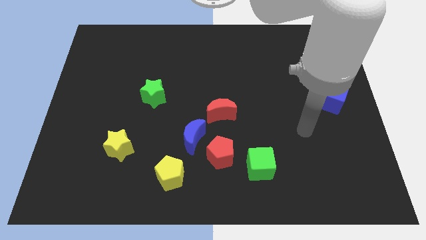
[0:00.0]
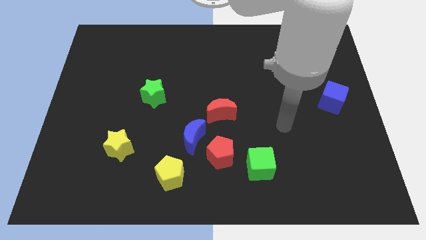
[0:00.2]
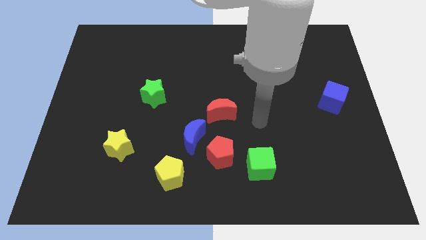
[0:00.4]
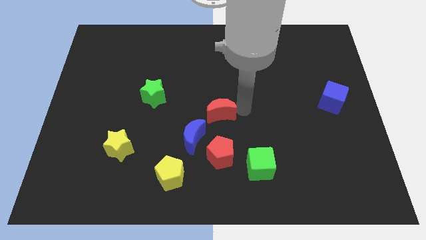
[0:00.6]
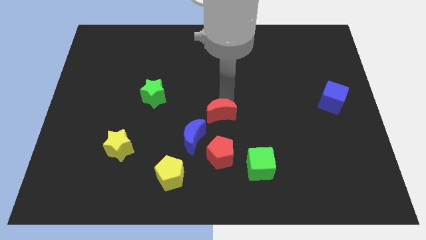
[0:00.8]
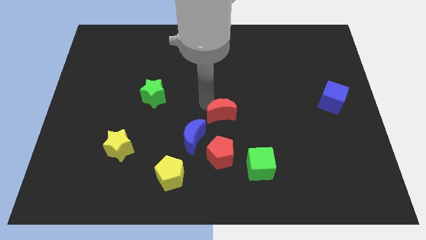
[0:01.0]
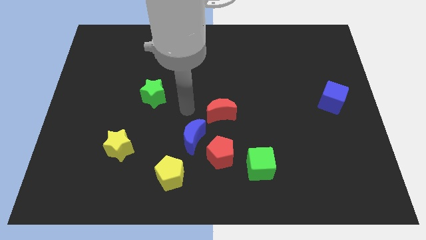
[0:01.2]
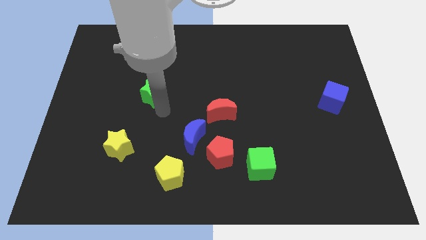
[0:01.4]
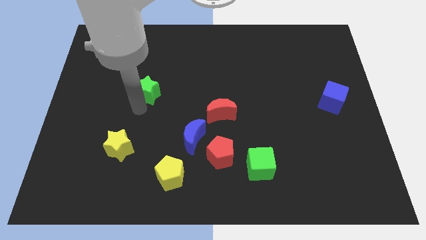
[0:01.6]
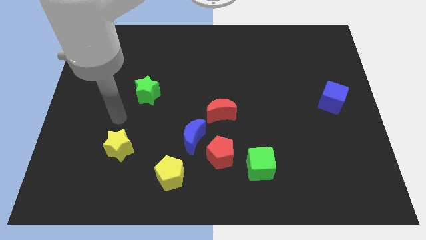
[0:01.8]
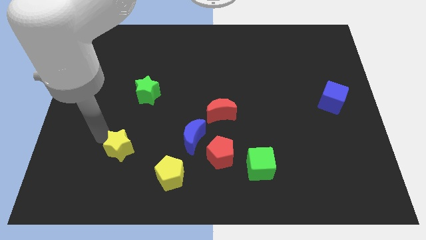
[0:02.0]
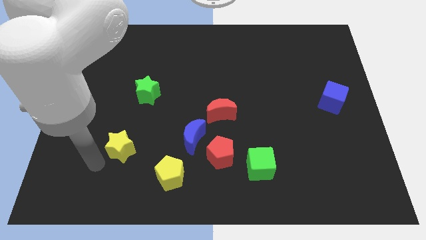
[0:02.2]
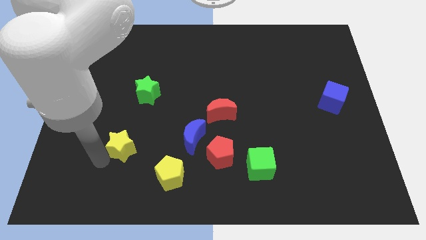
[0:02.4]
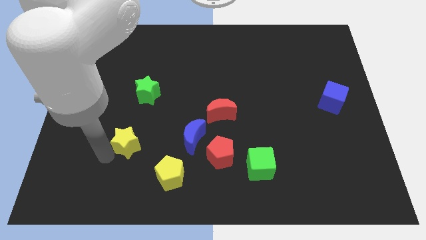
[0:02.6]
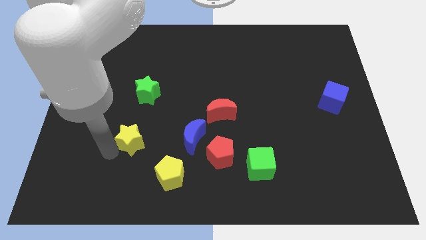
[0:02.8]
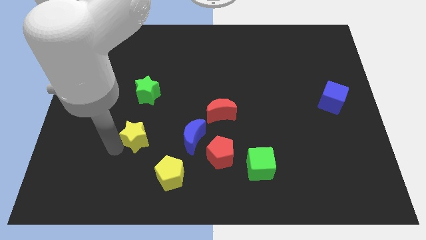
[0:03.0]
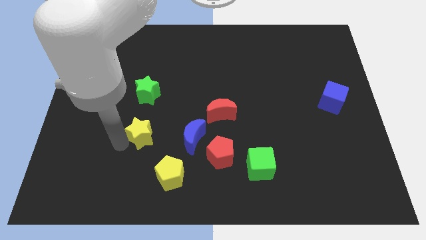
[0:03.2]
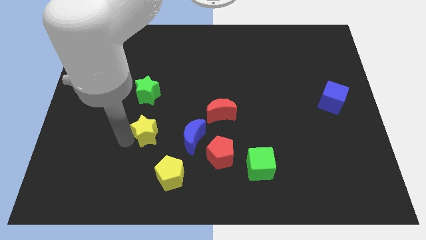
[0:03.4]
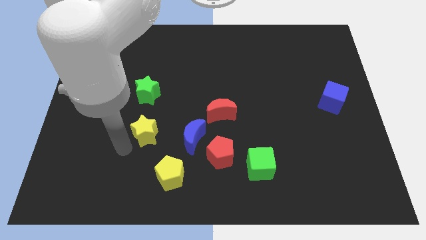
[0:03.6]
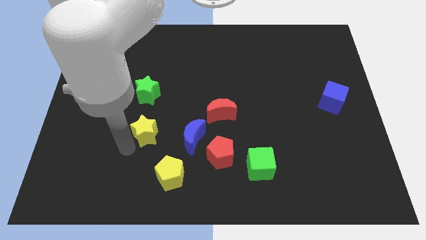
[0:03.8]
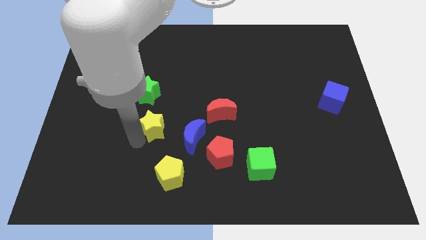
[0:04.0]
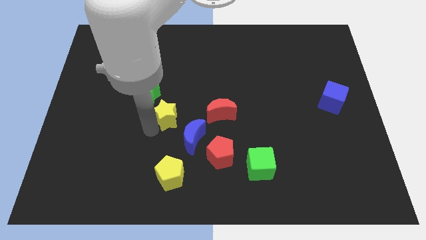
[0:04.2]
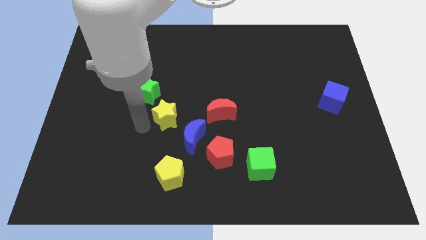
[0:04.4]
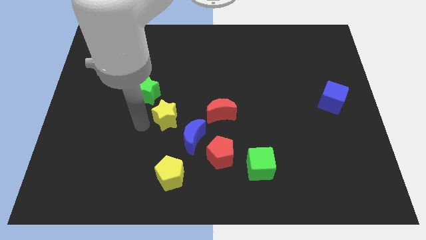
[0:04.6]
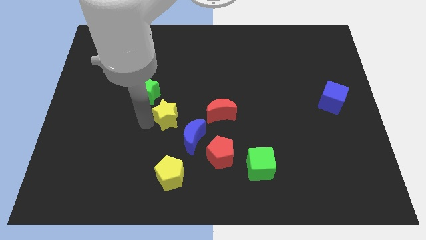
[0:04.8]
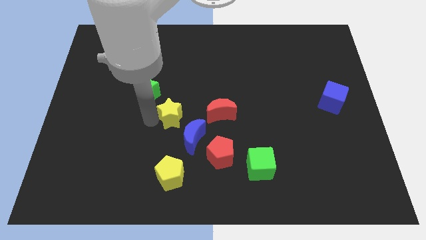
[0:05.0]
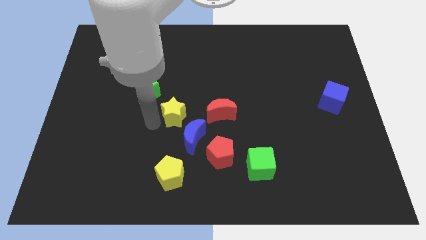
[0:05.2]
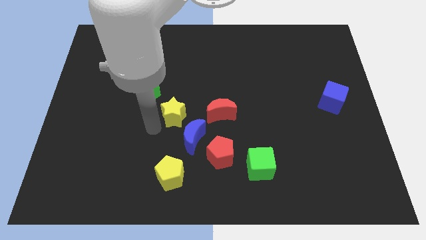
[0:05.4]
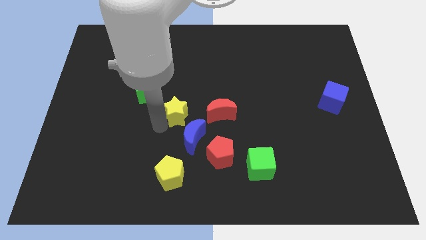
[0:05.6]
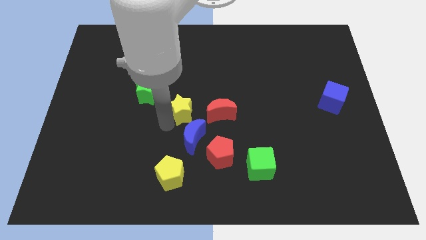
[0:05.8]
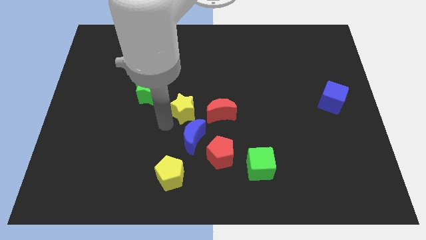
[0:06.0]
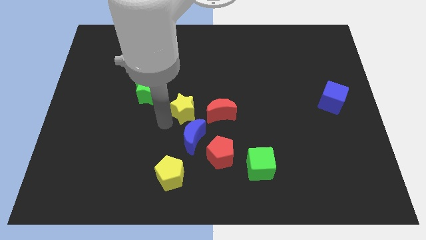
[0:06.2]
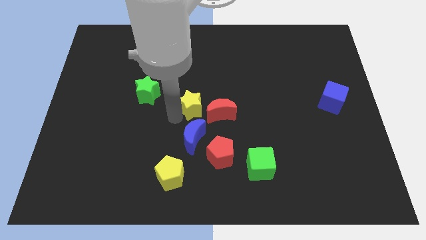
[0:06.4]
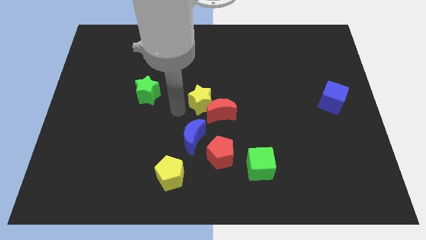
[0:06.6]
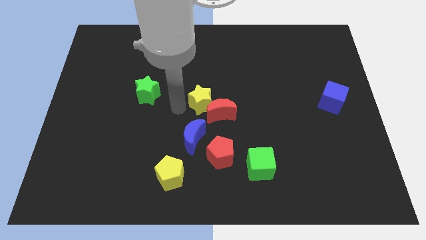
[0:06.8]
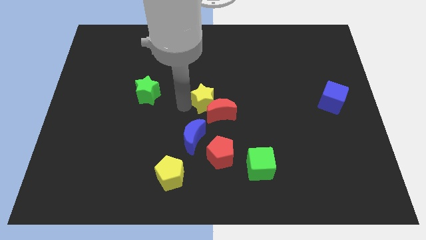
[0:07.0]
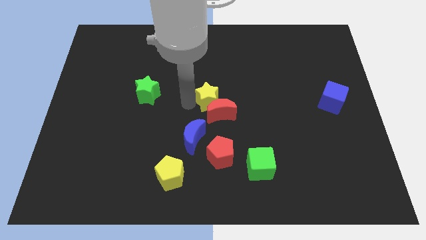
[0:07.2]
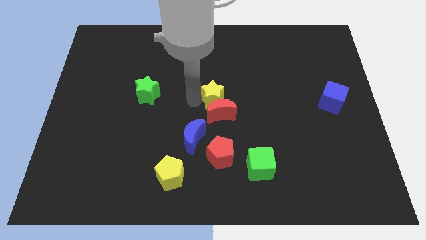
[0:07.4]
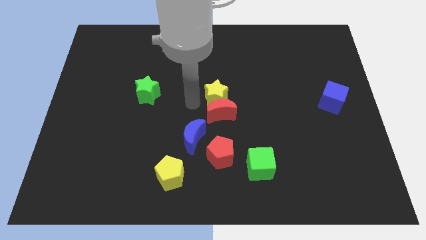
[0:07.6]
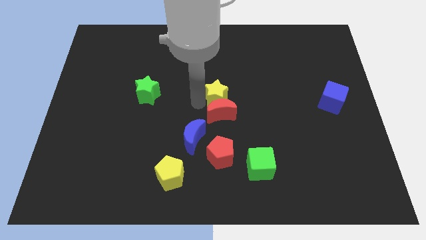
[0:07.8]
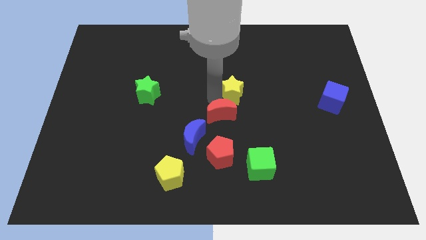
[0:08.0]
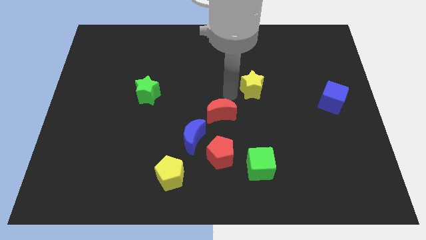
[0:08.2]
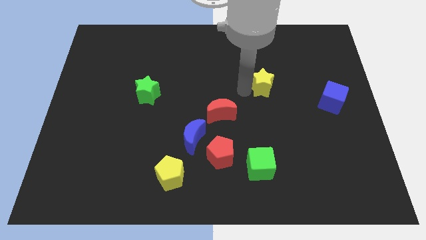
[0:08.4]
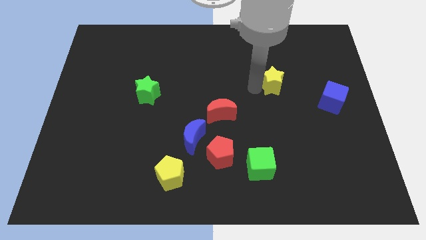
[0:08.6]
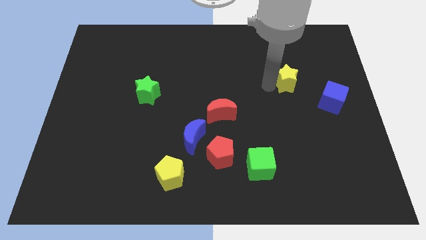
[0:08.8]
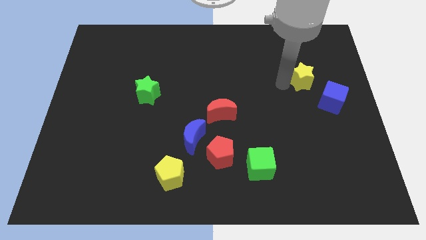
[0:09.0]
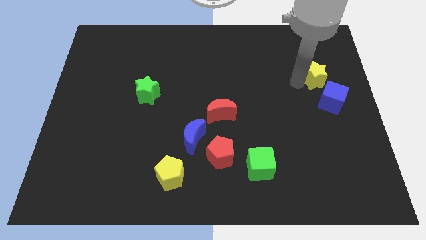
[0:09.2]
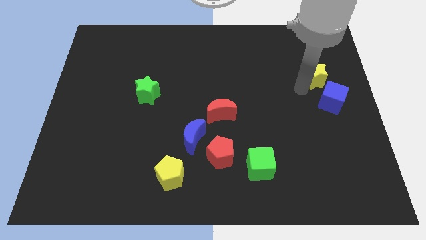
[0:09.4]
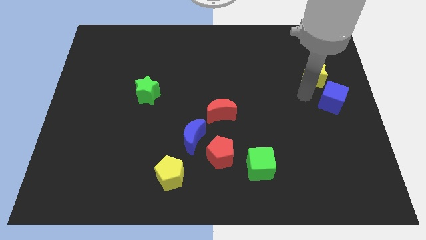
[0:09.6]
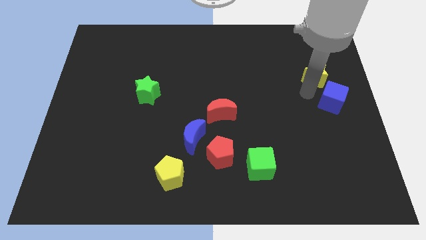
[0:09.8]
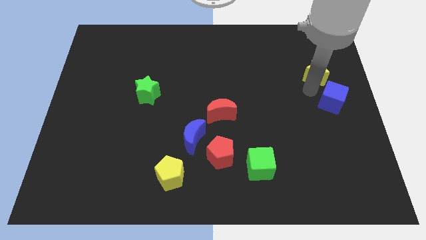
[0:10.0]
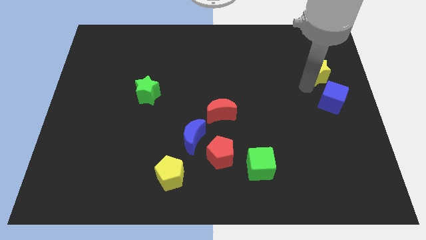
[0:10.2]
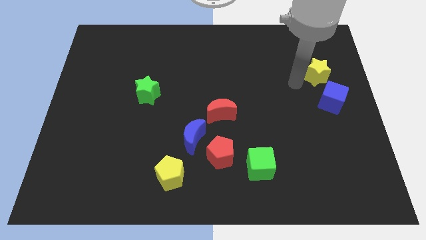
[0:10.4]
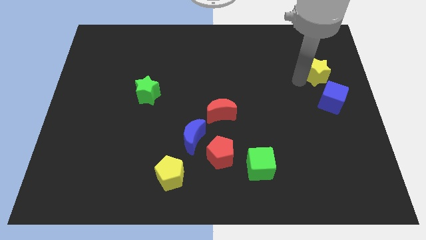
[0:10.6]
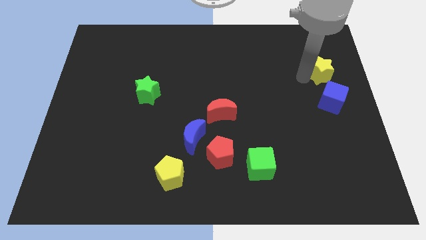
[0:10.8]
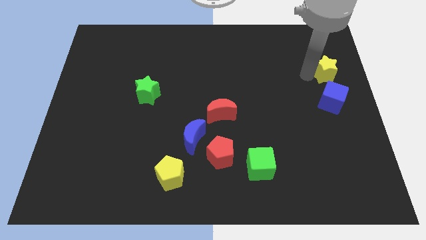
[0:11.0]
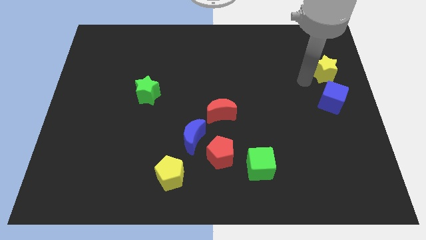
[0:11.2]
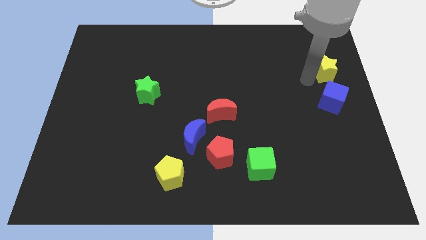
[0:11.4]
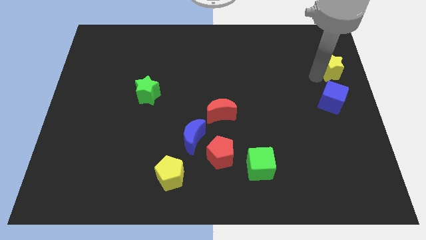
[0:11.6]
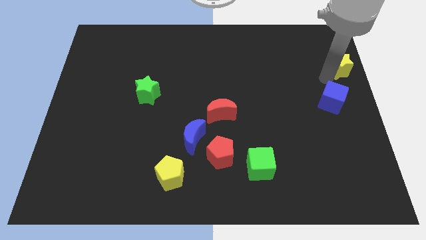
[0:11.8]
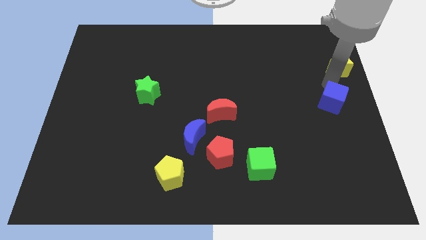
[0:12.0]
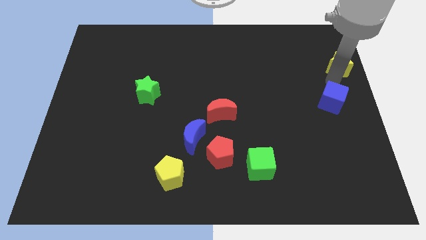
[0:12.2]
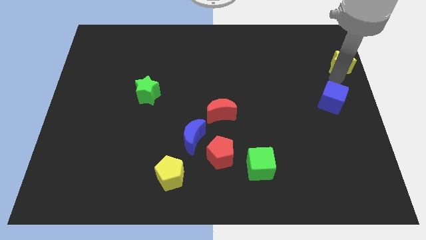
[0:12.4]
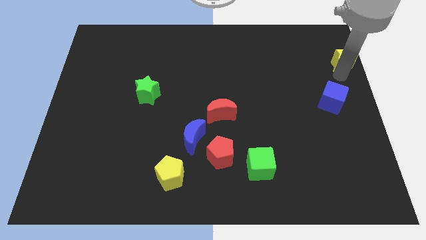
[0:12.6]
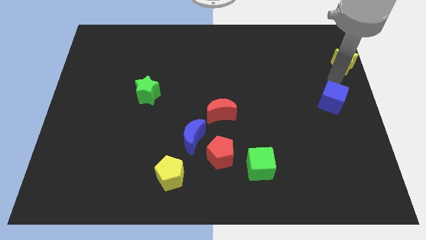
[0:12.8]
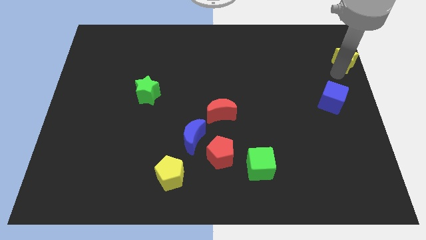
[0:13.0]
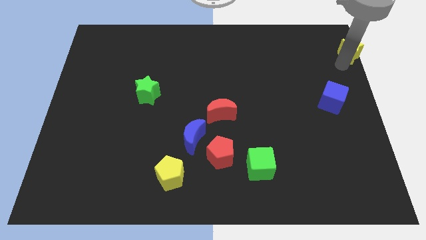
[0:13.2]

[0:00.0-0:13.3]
put the yellow star to the top right of the board
